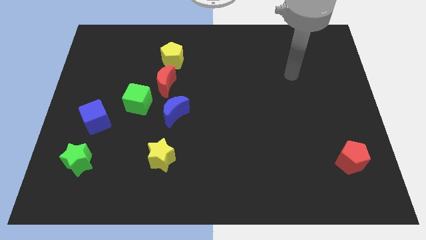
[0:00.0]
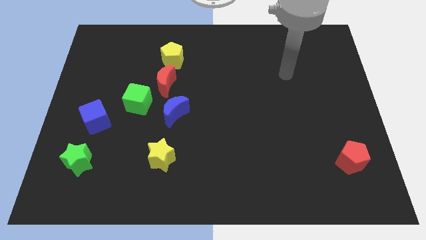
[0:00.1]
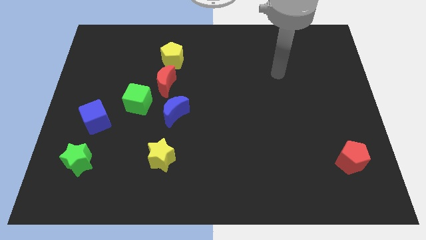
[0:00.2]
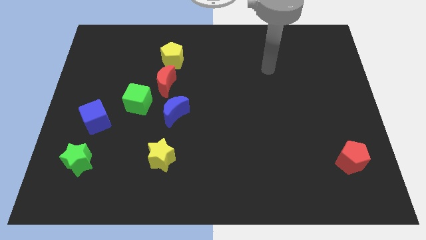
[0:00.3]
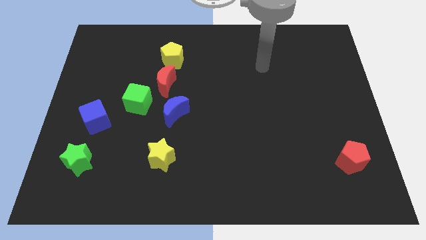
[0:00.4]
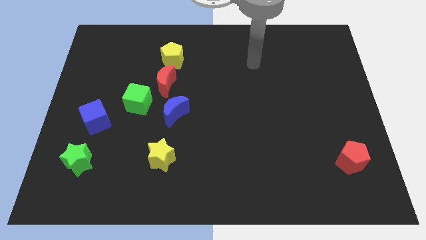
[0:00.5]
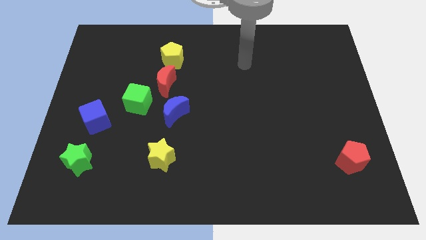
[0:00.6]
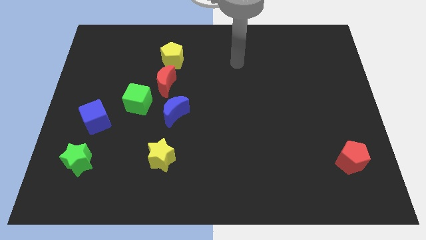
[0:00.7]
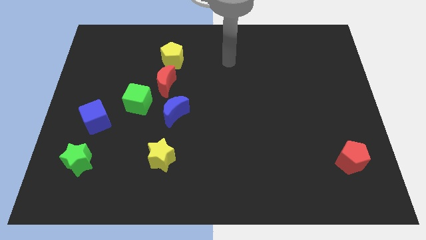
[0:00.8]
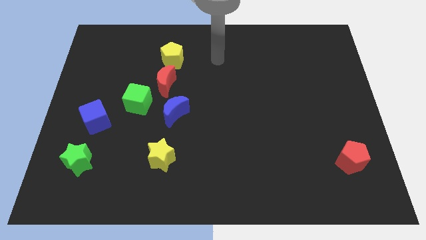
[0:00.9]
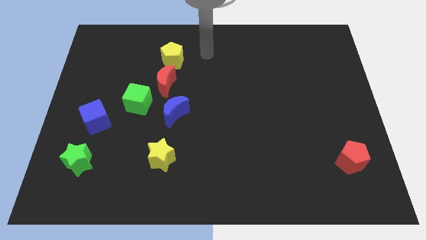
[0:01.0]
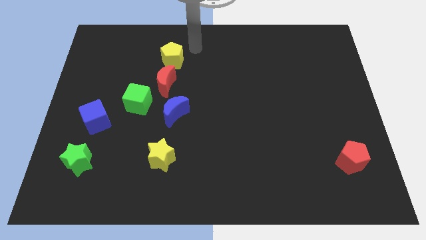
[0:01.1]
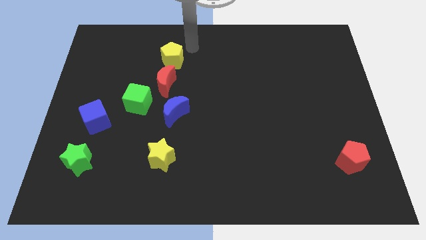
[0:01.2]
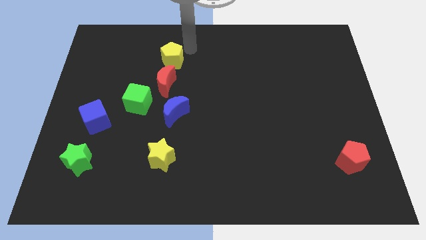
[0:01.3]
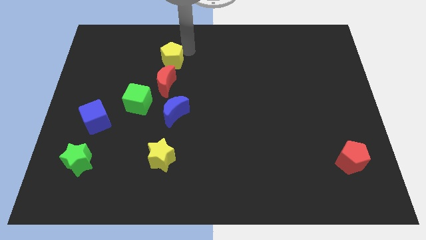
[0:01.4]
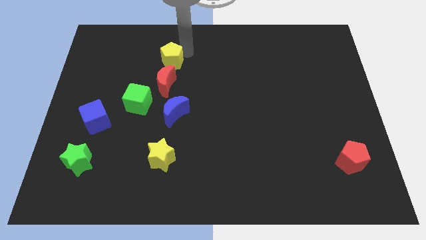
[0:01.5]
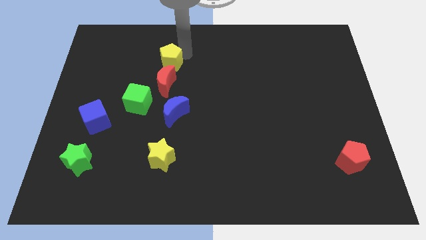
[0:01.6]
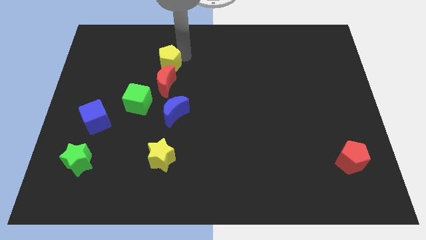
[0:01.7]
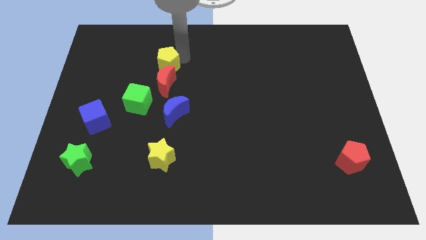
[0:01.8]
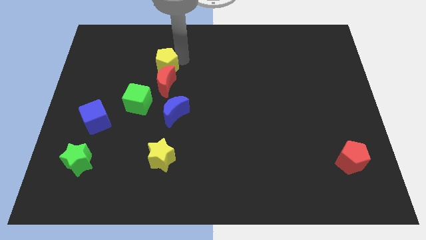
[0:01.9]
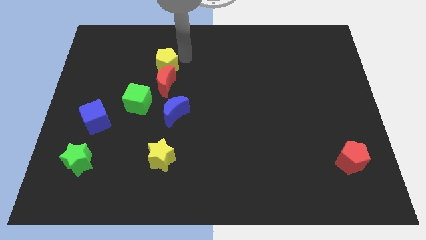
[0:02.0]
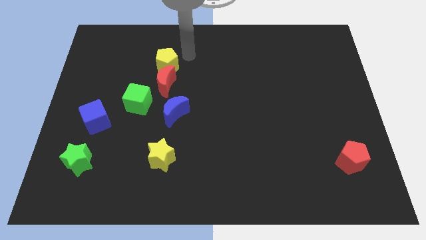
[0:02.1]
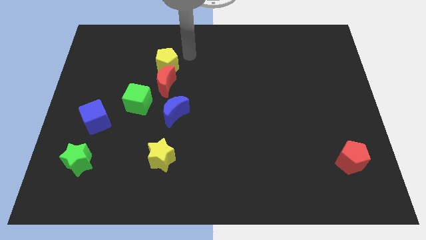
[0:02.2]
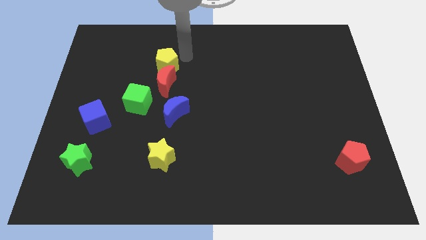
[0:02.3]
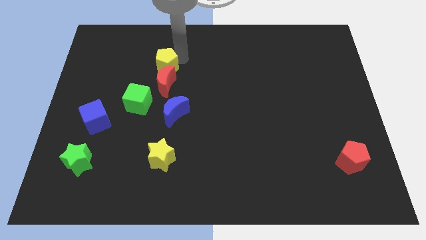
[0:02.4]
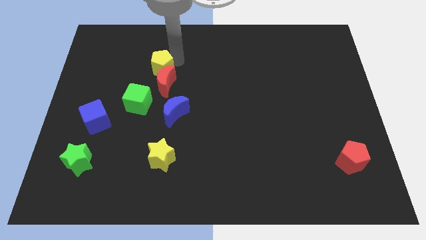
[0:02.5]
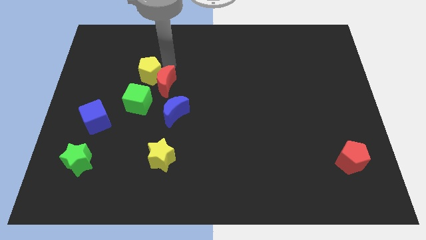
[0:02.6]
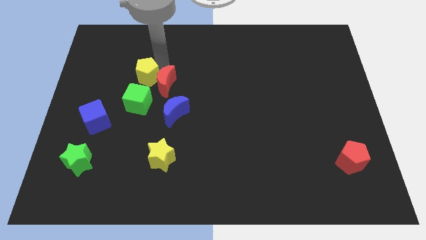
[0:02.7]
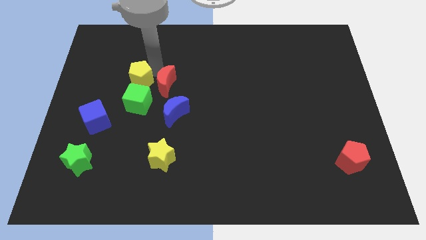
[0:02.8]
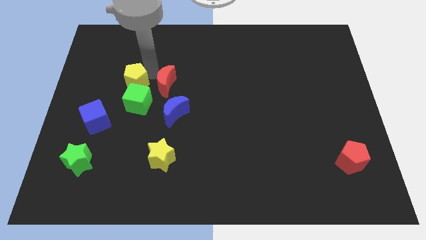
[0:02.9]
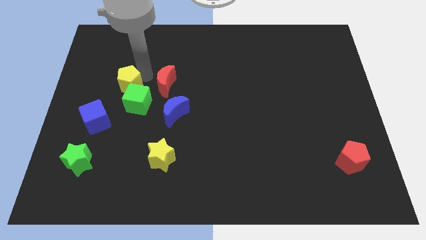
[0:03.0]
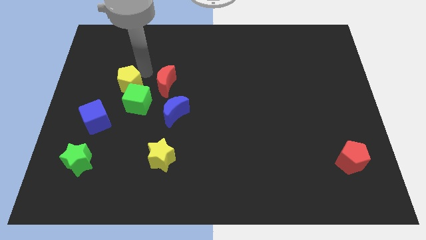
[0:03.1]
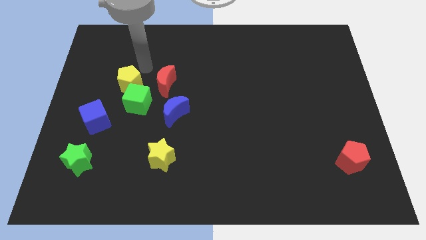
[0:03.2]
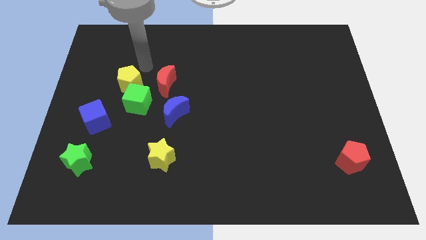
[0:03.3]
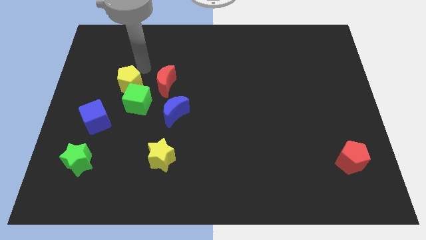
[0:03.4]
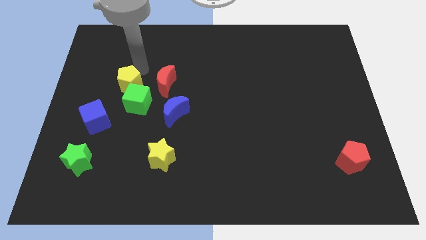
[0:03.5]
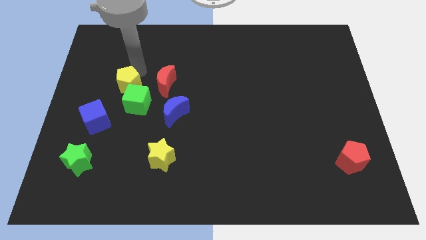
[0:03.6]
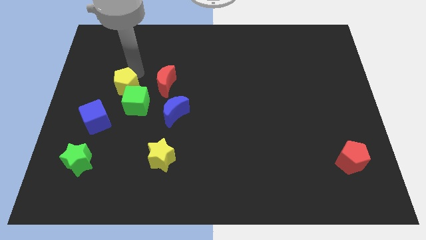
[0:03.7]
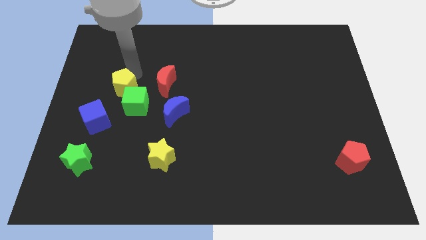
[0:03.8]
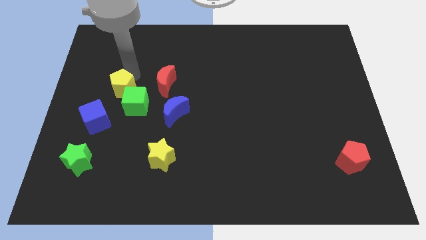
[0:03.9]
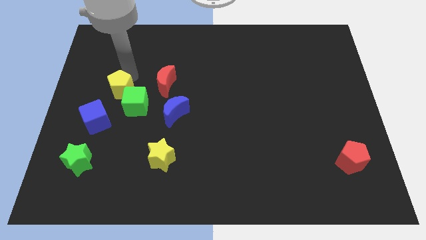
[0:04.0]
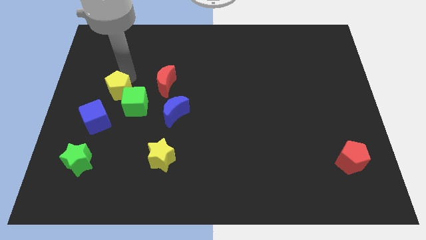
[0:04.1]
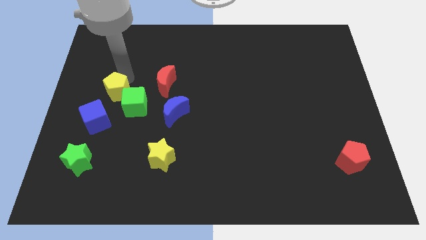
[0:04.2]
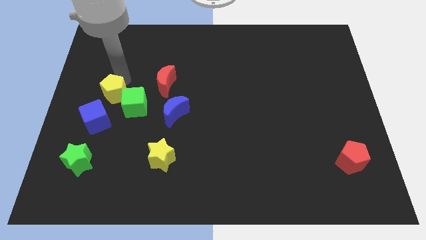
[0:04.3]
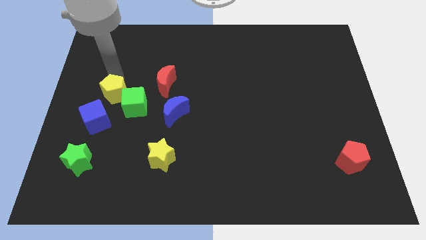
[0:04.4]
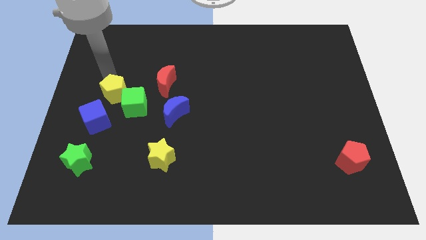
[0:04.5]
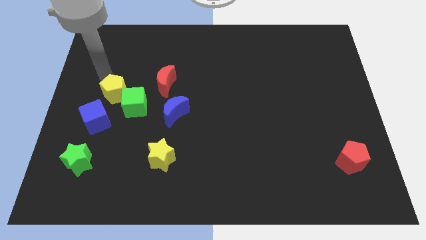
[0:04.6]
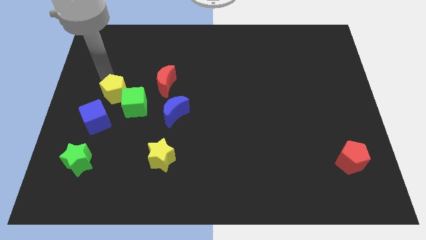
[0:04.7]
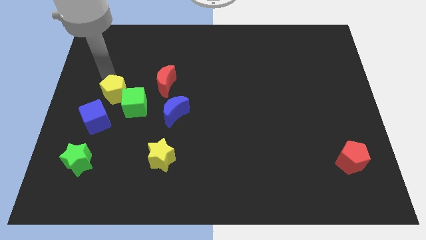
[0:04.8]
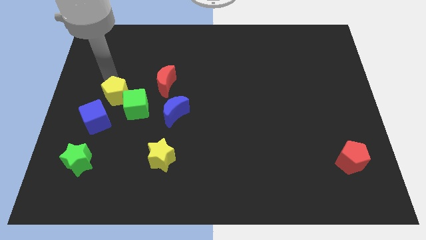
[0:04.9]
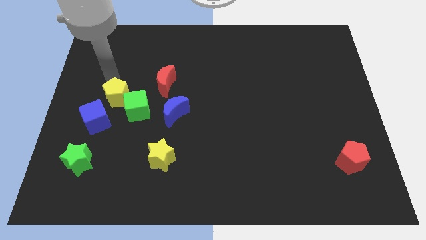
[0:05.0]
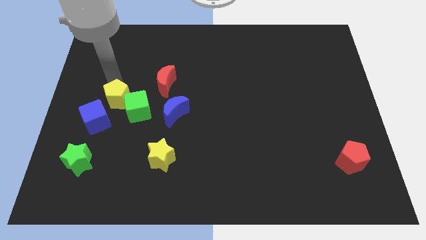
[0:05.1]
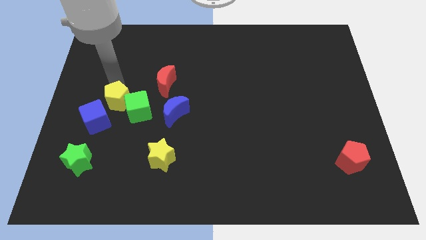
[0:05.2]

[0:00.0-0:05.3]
push the yellow pentagon just left of the blue moon
